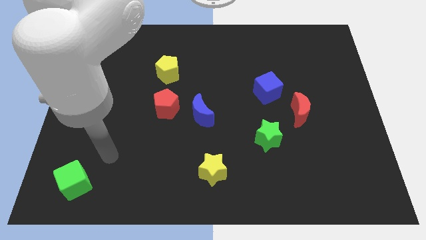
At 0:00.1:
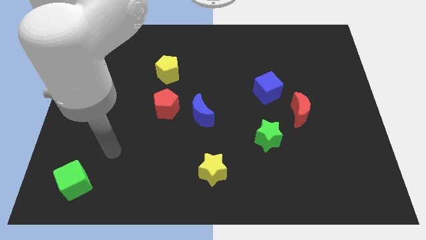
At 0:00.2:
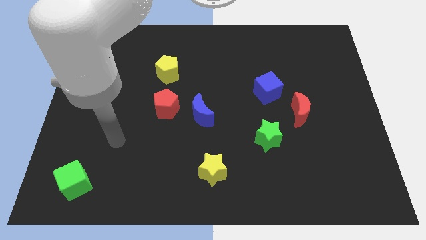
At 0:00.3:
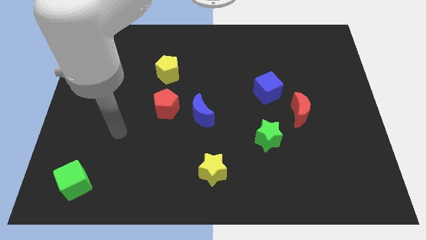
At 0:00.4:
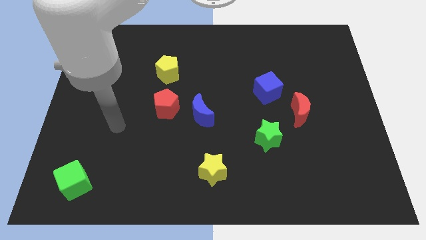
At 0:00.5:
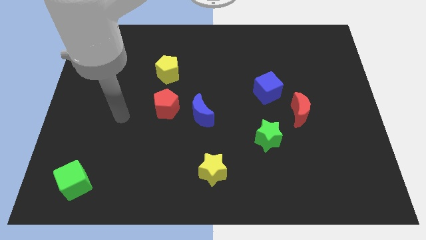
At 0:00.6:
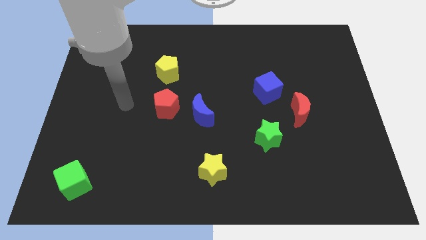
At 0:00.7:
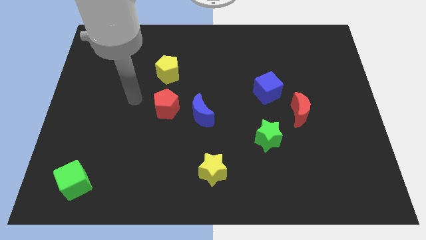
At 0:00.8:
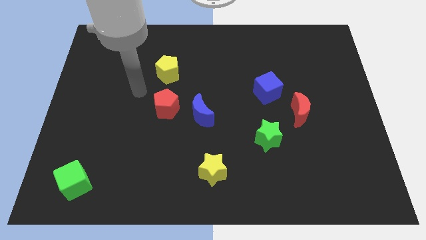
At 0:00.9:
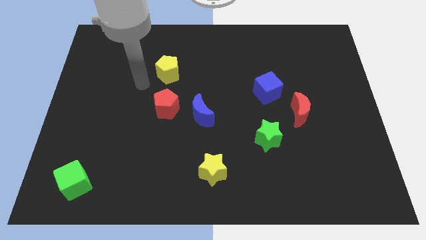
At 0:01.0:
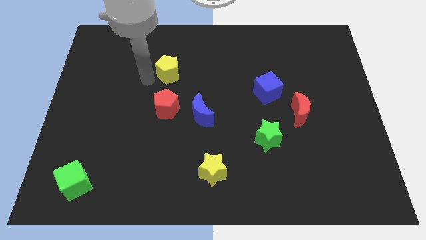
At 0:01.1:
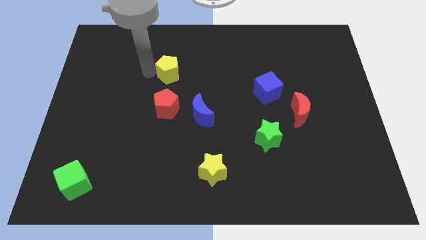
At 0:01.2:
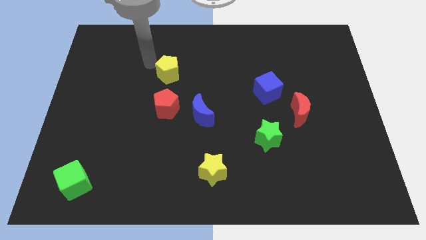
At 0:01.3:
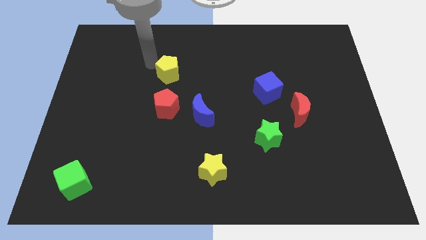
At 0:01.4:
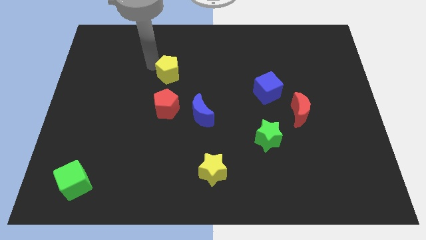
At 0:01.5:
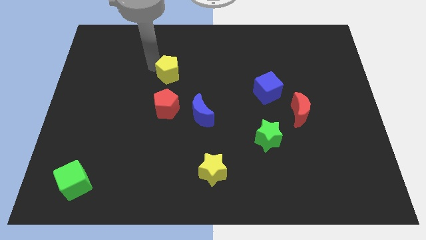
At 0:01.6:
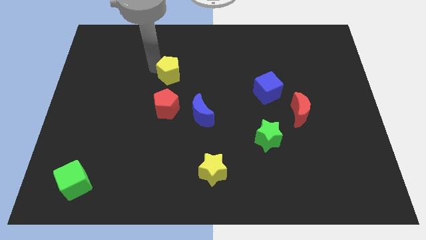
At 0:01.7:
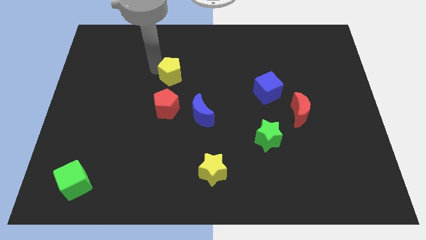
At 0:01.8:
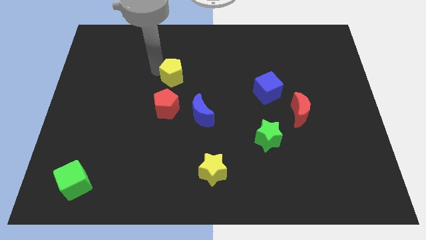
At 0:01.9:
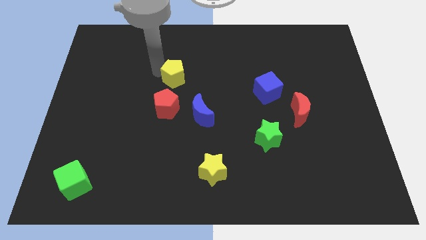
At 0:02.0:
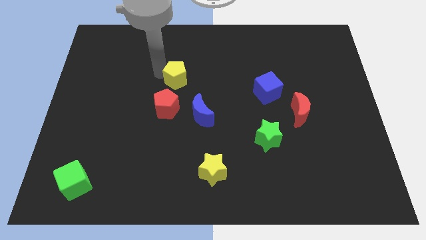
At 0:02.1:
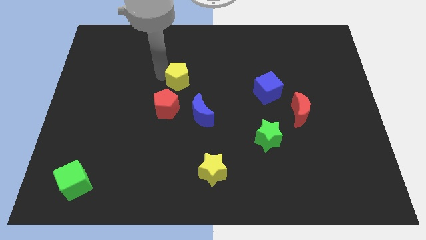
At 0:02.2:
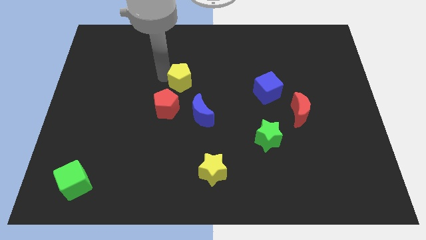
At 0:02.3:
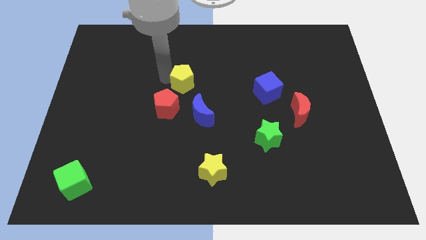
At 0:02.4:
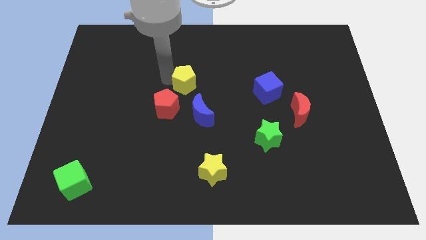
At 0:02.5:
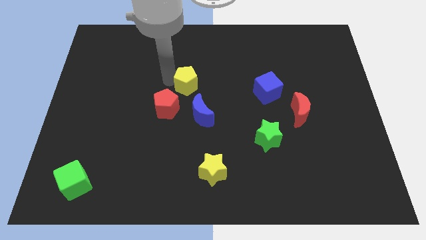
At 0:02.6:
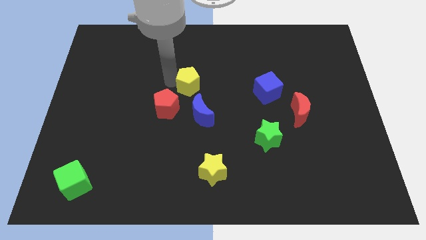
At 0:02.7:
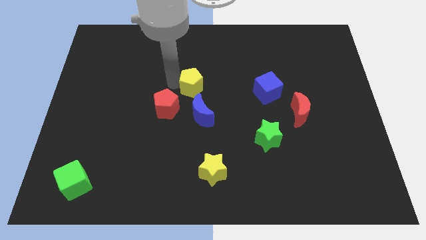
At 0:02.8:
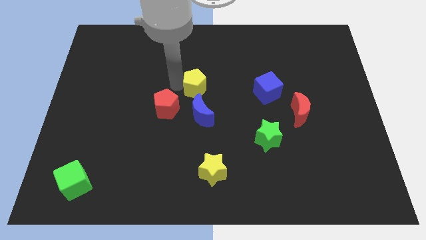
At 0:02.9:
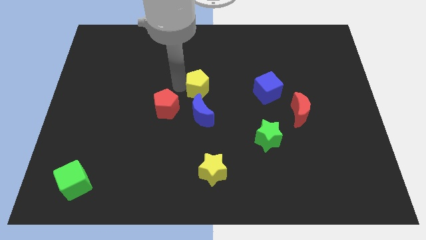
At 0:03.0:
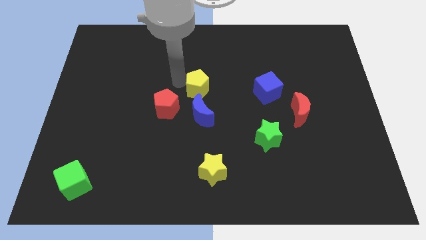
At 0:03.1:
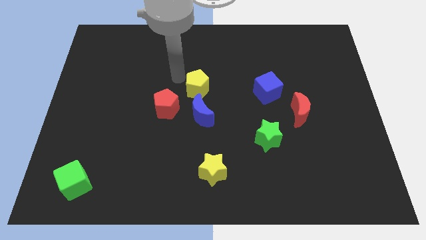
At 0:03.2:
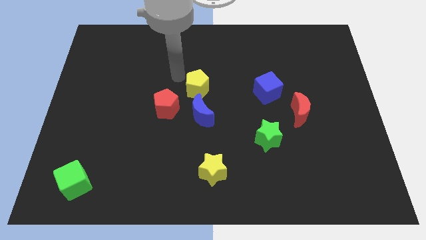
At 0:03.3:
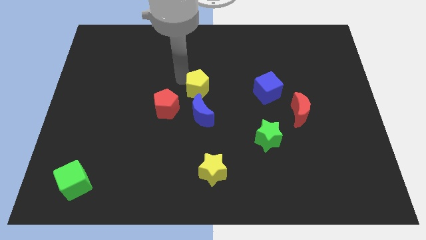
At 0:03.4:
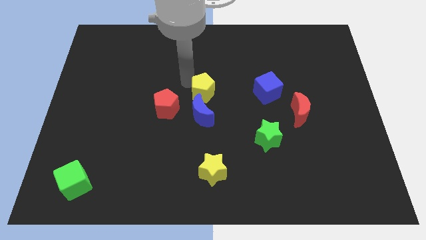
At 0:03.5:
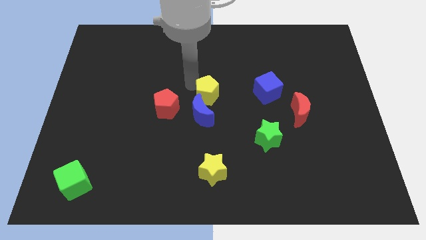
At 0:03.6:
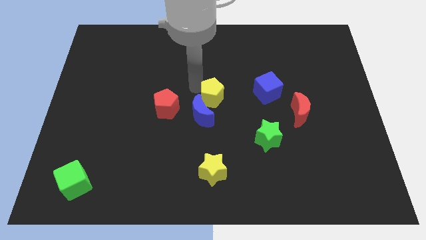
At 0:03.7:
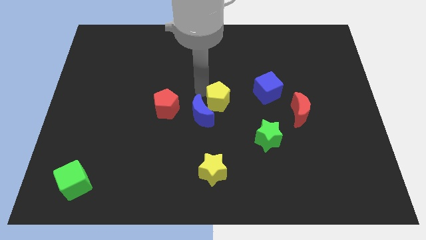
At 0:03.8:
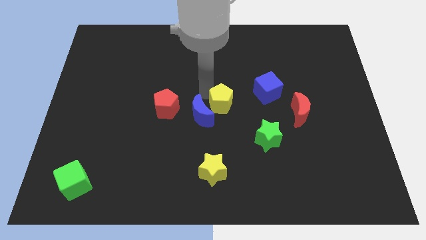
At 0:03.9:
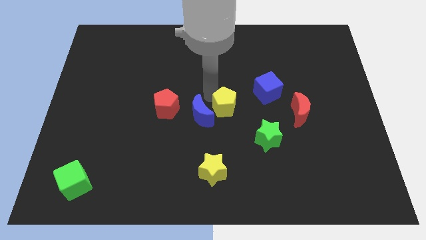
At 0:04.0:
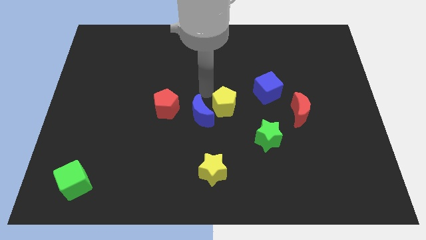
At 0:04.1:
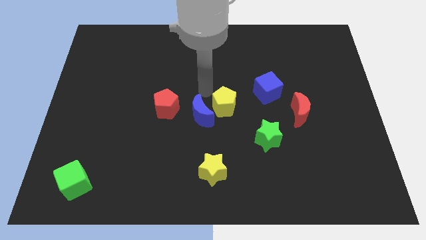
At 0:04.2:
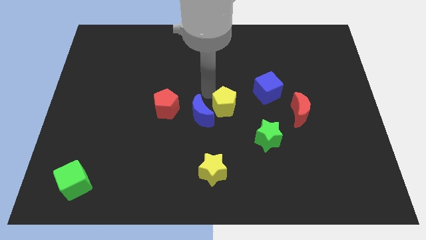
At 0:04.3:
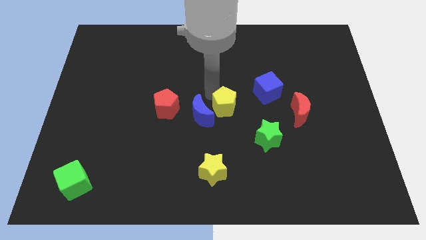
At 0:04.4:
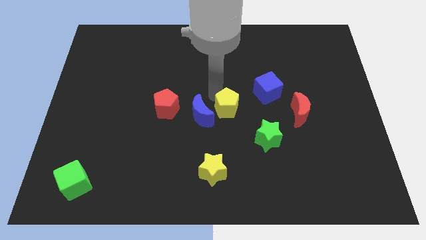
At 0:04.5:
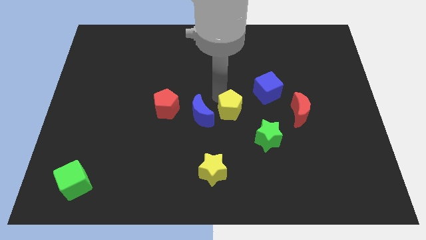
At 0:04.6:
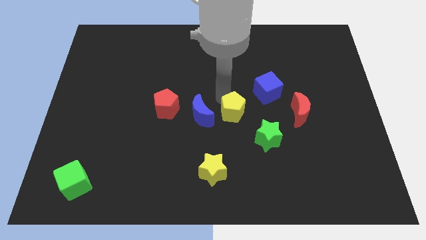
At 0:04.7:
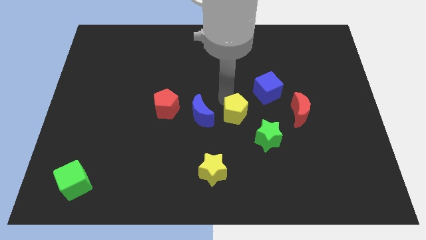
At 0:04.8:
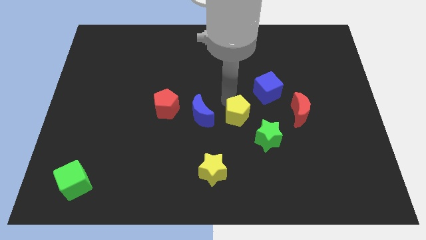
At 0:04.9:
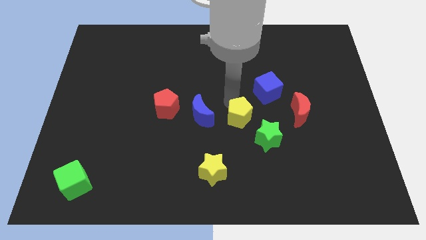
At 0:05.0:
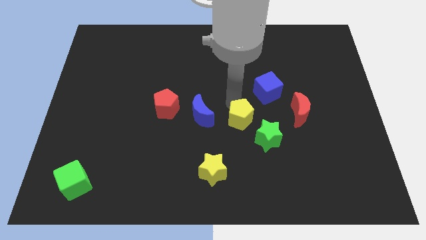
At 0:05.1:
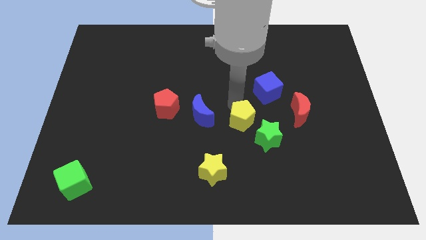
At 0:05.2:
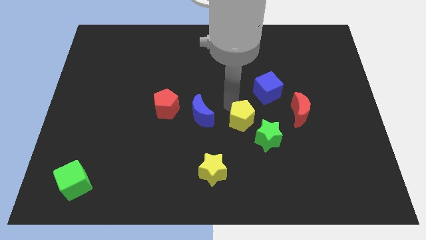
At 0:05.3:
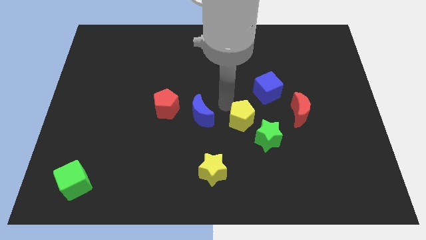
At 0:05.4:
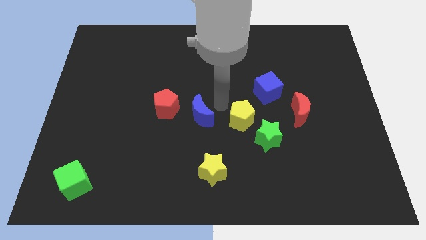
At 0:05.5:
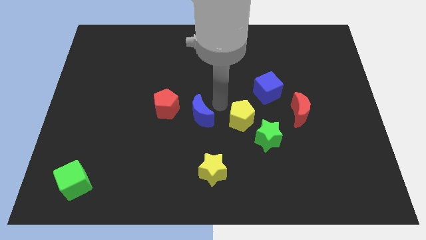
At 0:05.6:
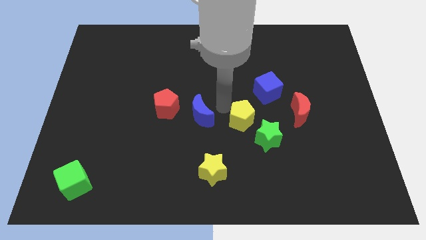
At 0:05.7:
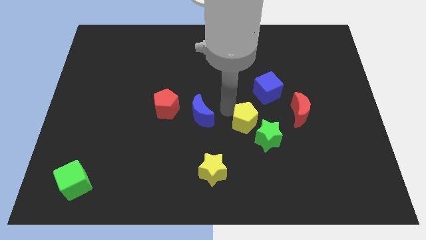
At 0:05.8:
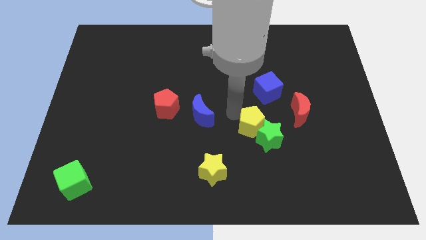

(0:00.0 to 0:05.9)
slide the yellow pentagon close to the green star

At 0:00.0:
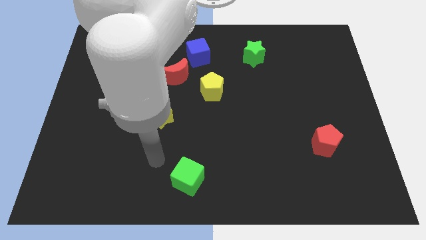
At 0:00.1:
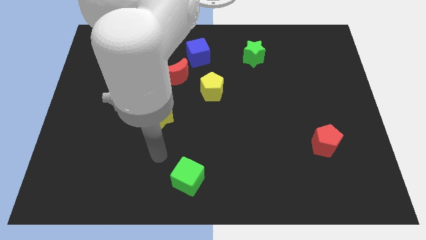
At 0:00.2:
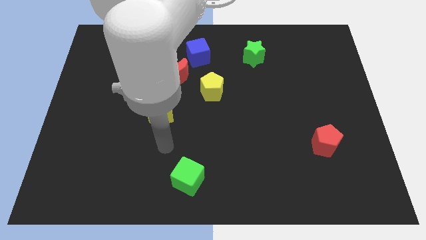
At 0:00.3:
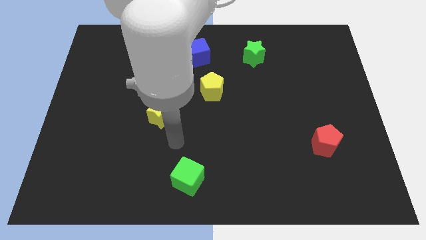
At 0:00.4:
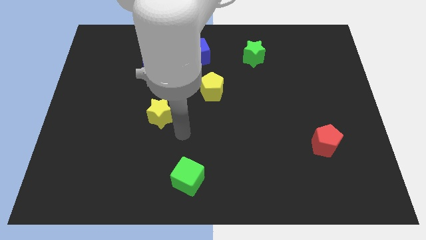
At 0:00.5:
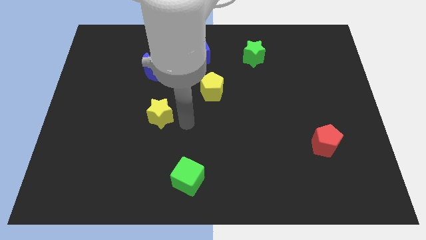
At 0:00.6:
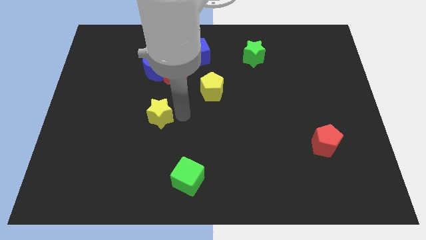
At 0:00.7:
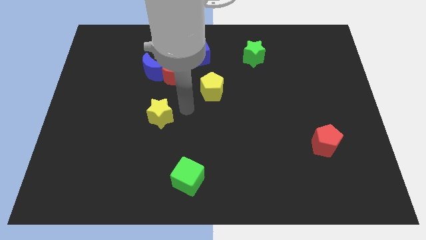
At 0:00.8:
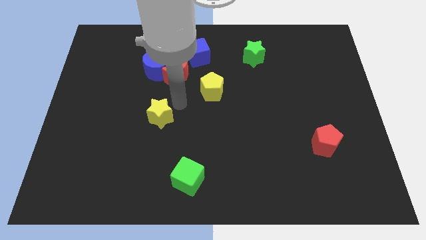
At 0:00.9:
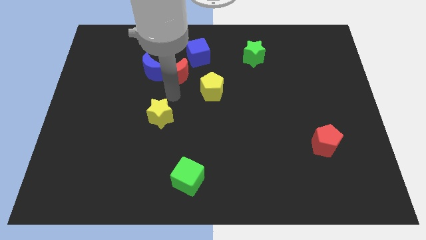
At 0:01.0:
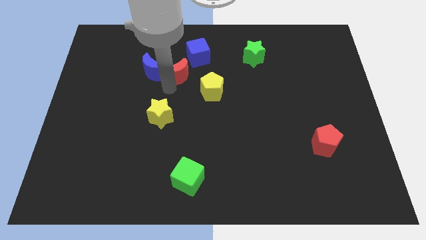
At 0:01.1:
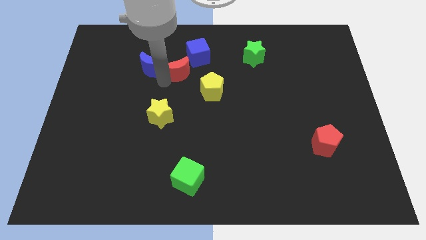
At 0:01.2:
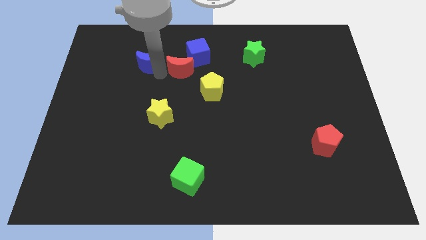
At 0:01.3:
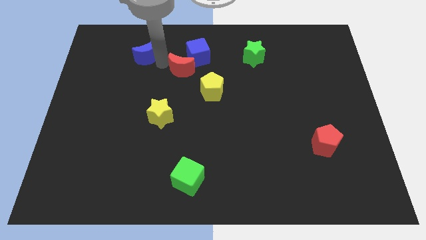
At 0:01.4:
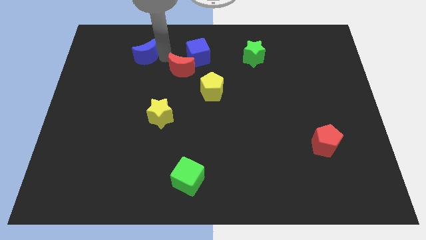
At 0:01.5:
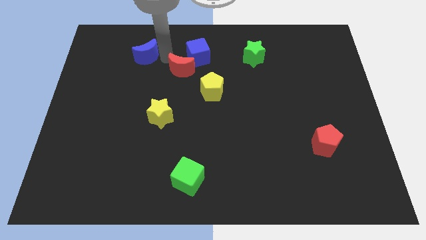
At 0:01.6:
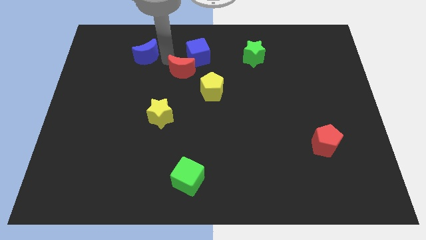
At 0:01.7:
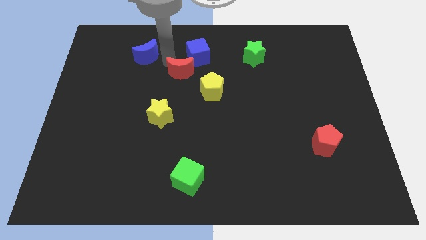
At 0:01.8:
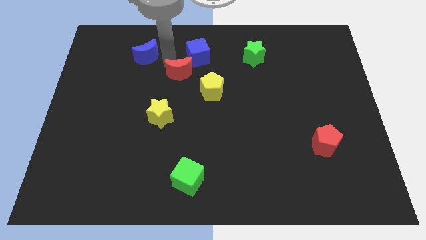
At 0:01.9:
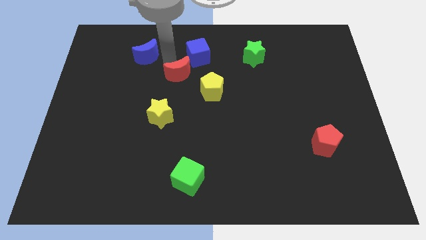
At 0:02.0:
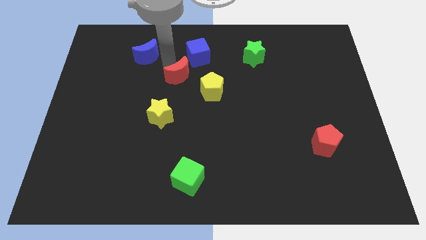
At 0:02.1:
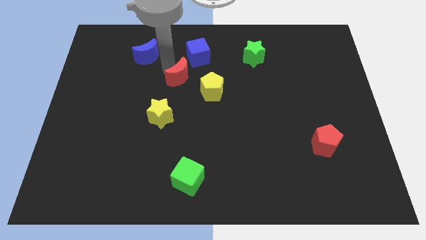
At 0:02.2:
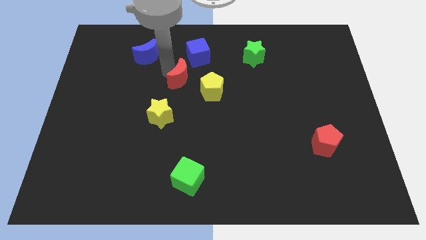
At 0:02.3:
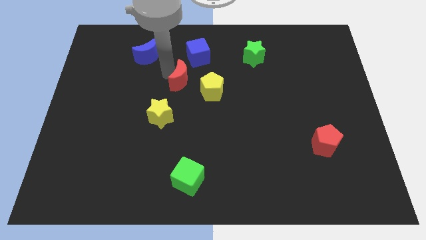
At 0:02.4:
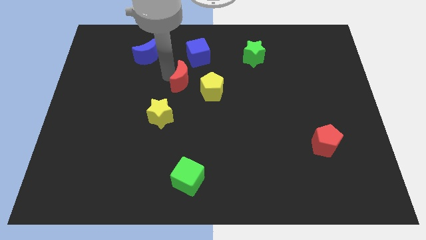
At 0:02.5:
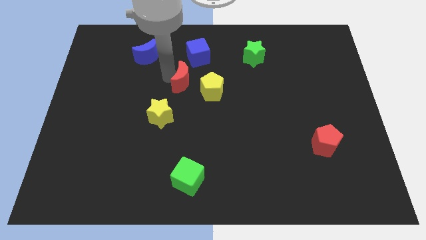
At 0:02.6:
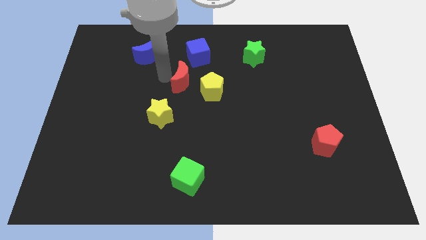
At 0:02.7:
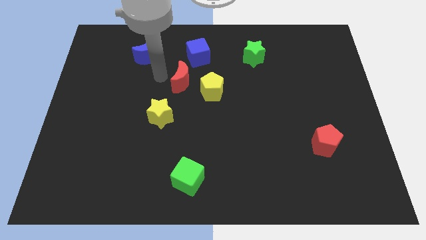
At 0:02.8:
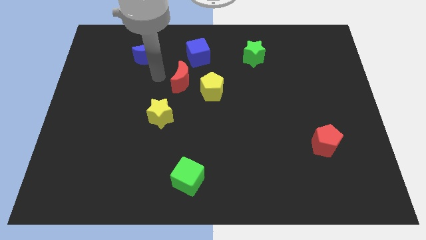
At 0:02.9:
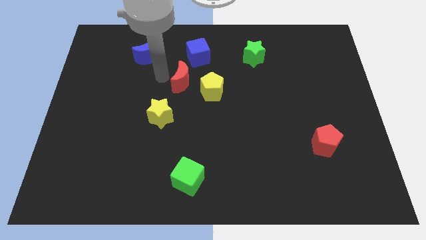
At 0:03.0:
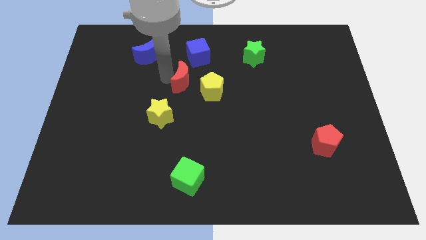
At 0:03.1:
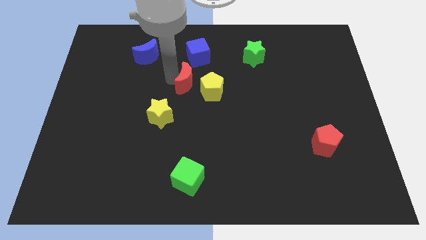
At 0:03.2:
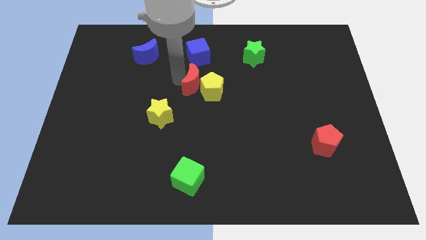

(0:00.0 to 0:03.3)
move the red moon towards the yellow pentagon
